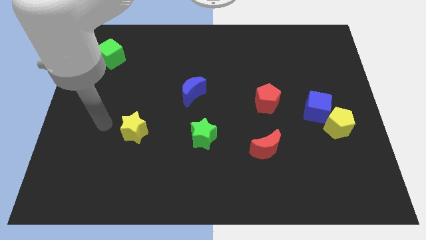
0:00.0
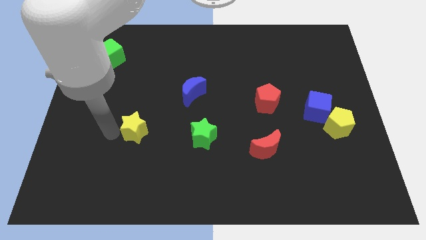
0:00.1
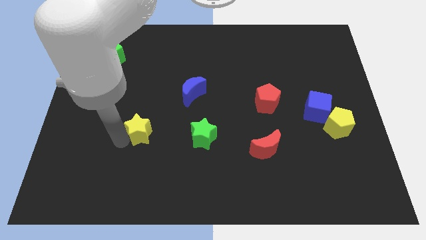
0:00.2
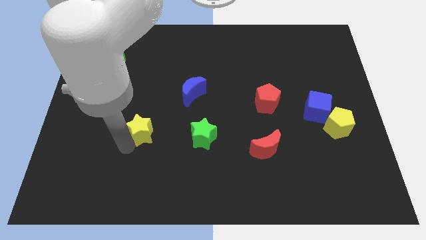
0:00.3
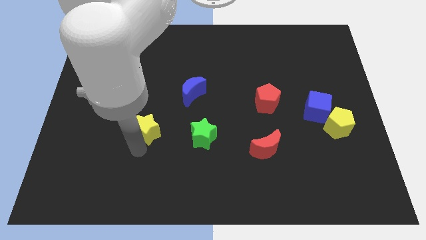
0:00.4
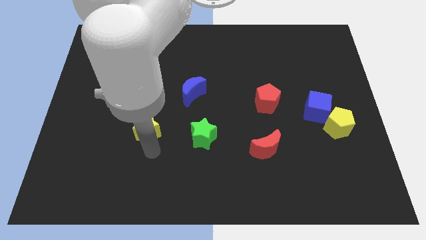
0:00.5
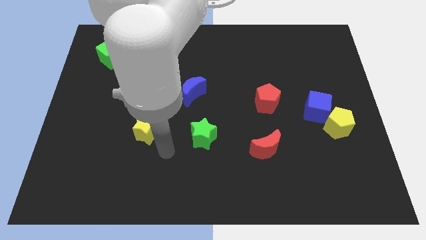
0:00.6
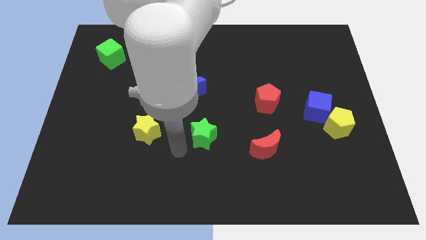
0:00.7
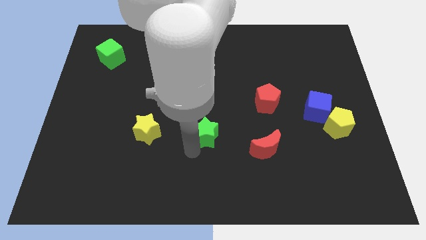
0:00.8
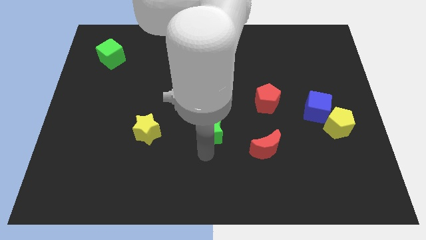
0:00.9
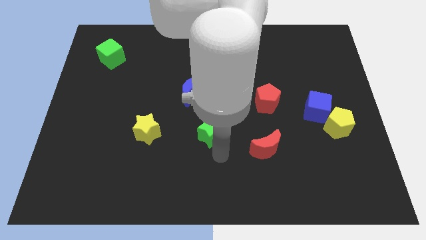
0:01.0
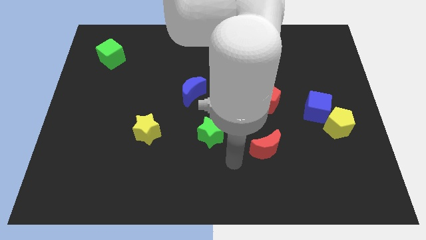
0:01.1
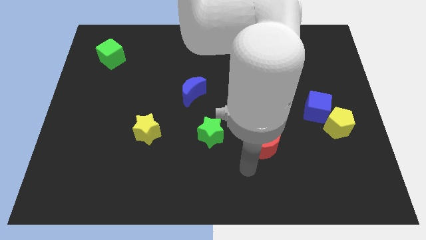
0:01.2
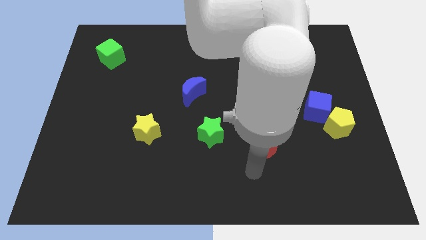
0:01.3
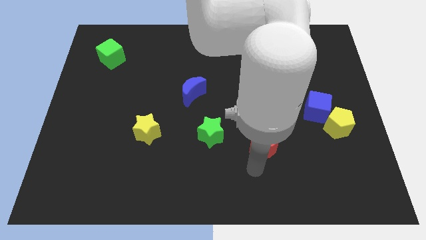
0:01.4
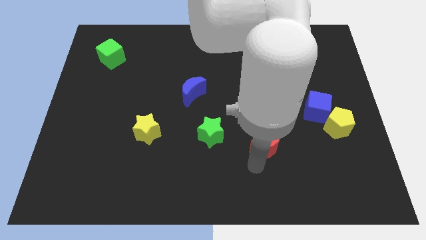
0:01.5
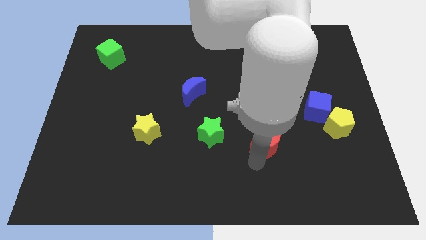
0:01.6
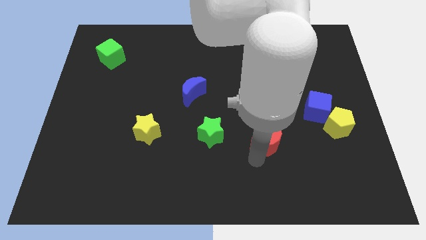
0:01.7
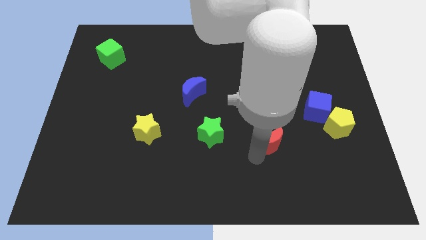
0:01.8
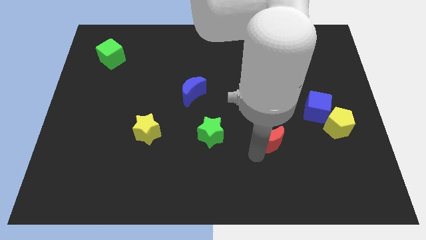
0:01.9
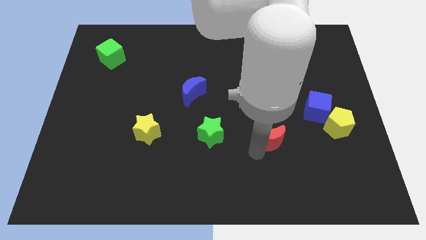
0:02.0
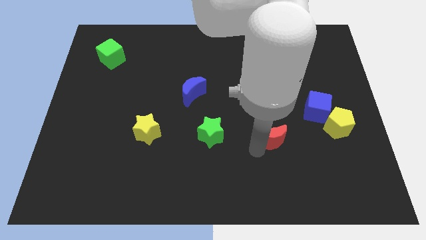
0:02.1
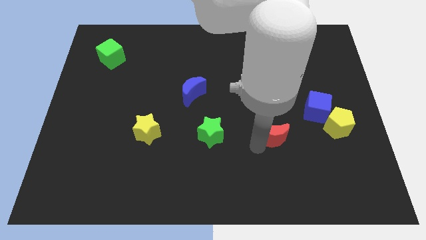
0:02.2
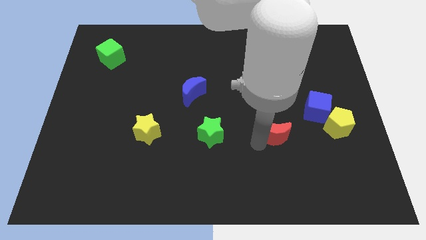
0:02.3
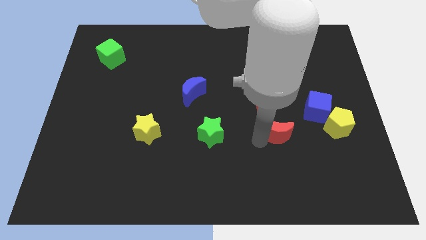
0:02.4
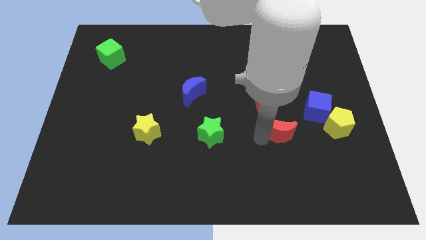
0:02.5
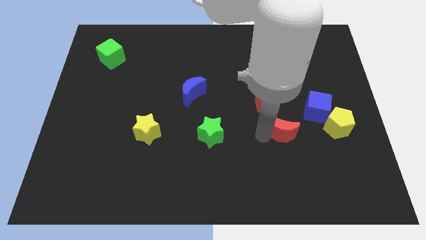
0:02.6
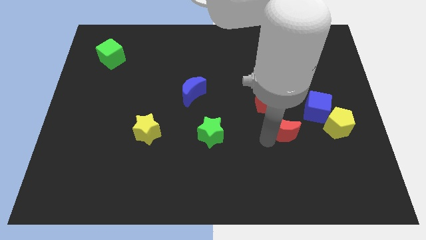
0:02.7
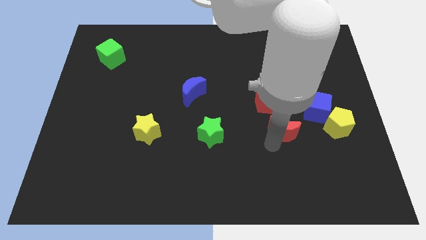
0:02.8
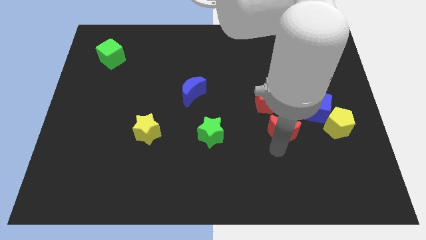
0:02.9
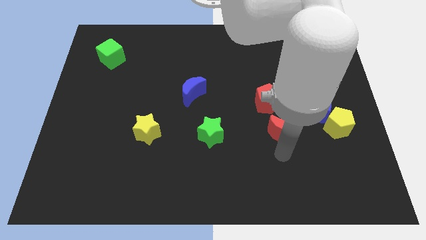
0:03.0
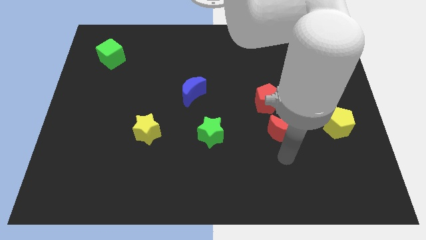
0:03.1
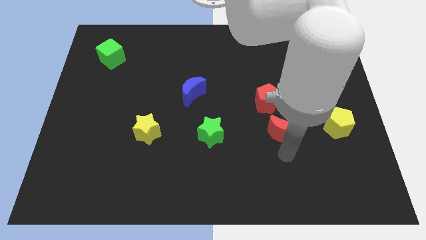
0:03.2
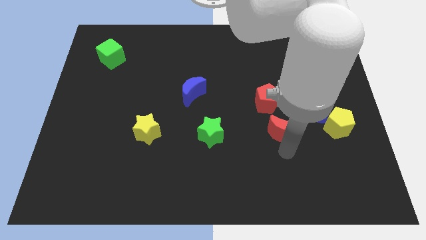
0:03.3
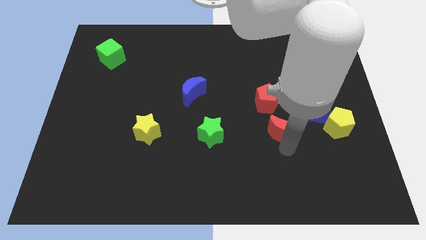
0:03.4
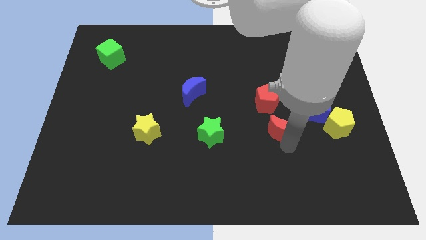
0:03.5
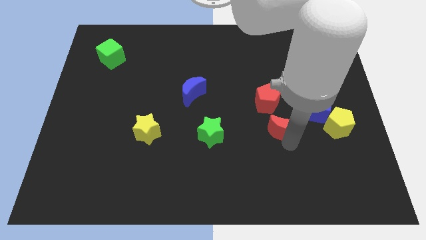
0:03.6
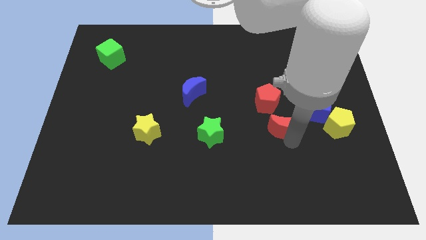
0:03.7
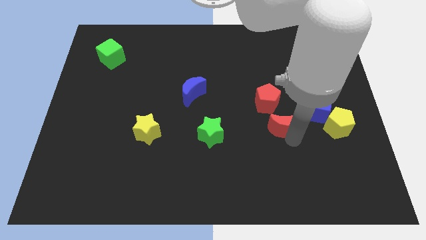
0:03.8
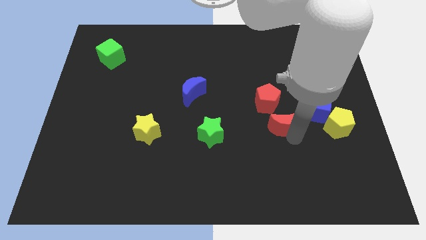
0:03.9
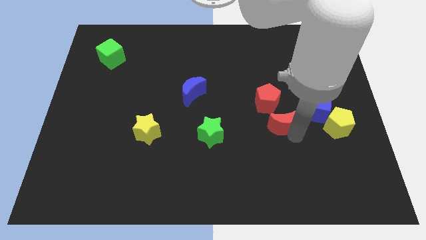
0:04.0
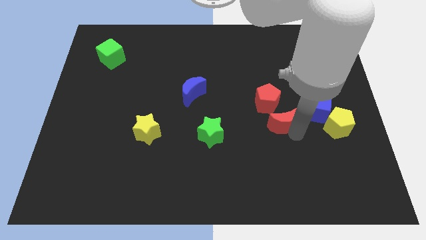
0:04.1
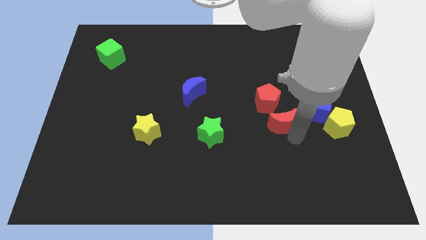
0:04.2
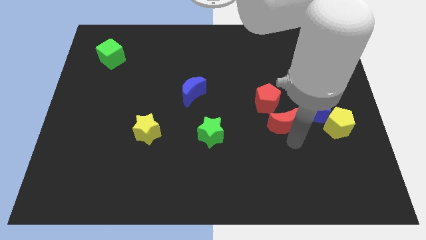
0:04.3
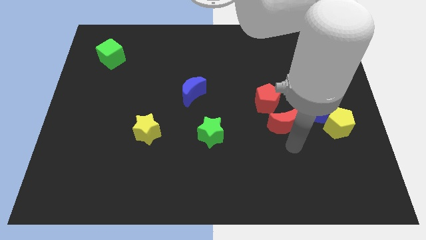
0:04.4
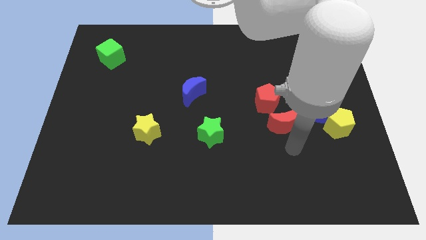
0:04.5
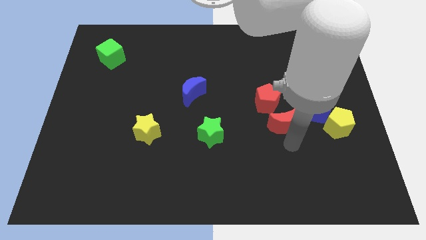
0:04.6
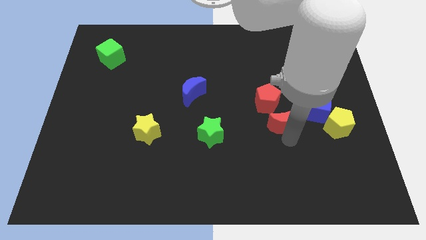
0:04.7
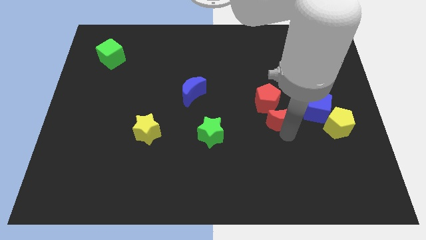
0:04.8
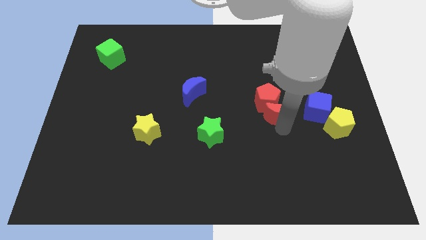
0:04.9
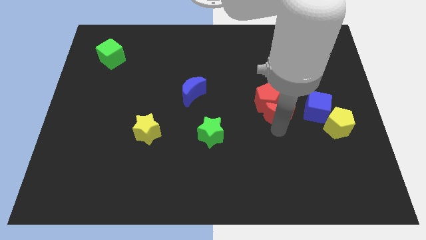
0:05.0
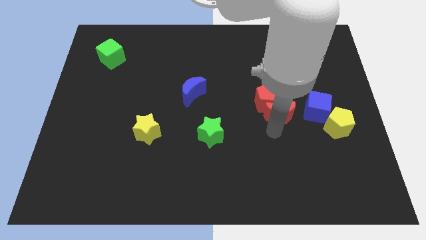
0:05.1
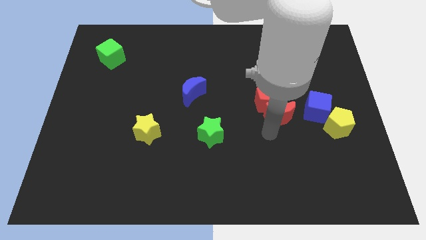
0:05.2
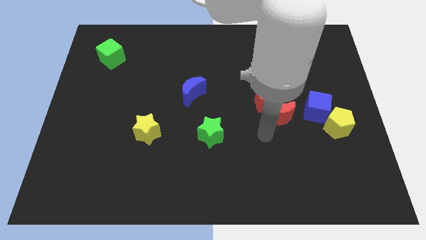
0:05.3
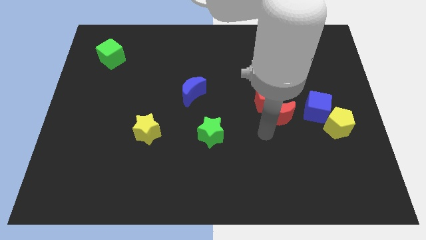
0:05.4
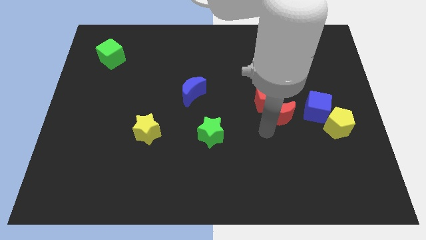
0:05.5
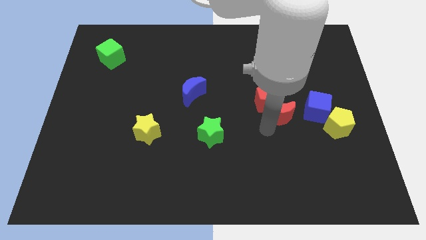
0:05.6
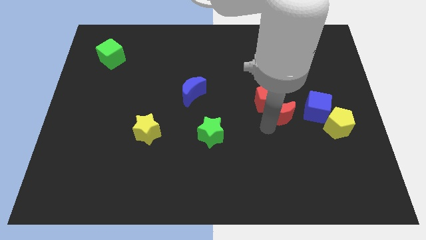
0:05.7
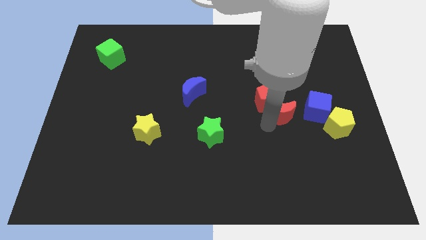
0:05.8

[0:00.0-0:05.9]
slide the red moon to the right side of the red pentagon

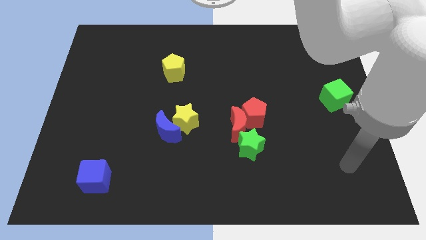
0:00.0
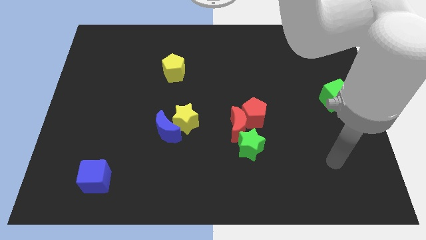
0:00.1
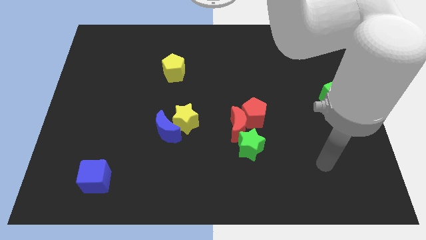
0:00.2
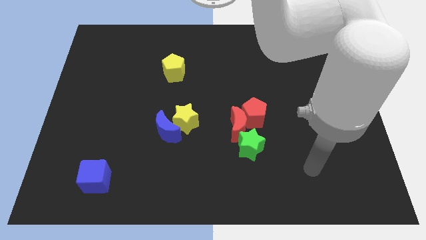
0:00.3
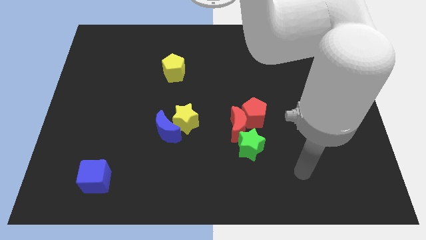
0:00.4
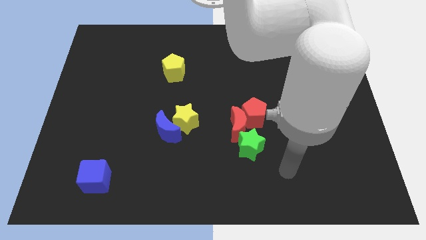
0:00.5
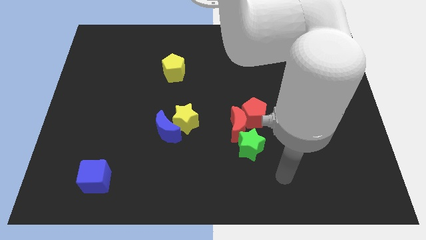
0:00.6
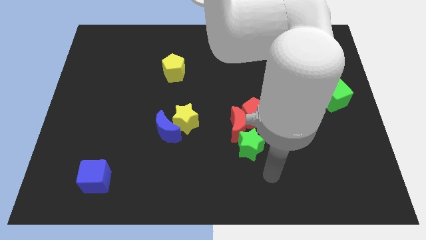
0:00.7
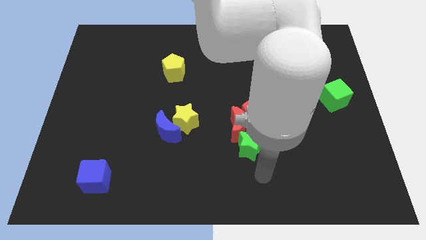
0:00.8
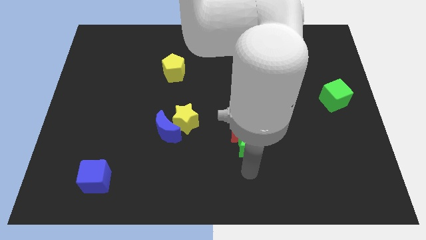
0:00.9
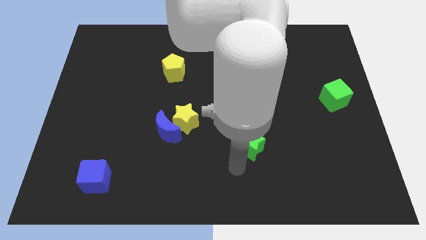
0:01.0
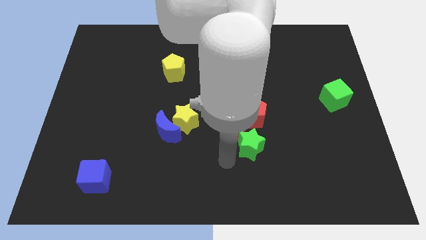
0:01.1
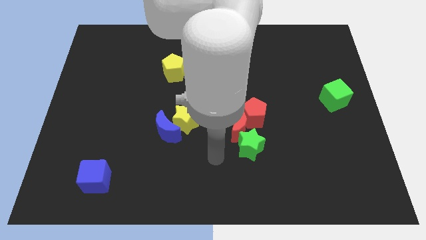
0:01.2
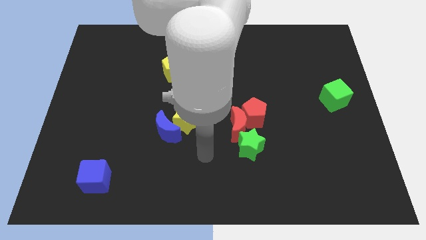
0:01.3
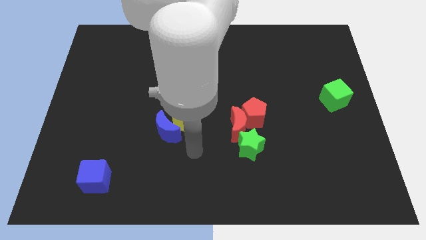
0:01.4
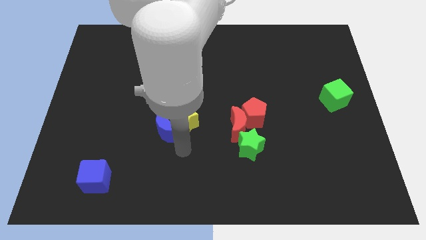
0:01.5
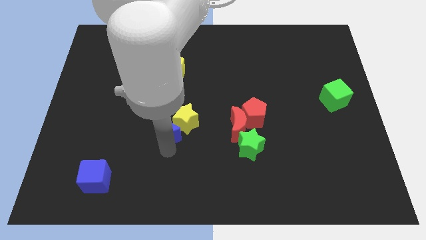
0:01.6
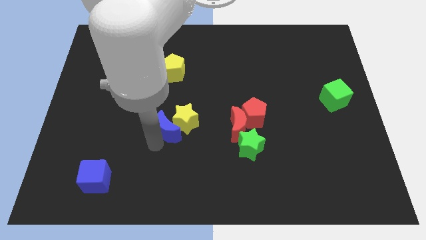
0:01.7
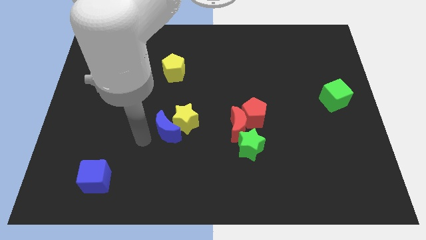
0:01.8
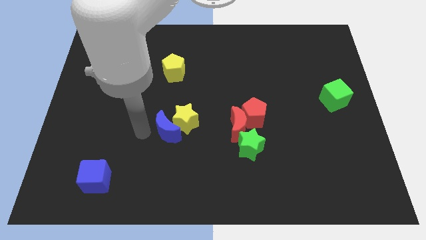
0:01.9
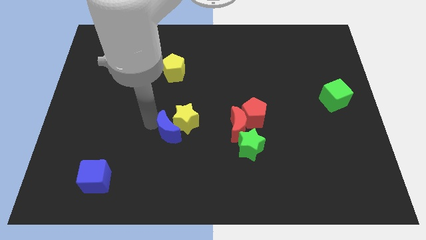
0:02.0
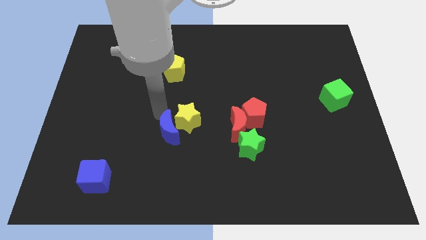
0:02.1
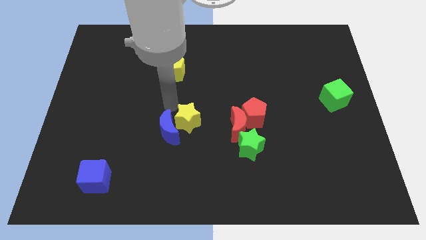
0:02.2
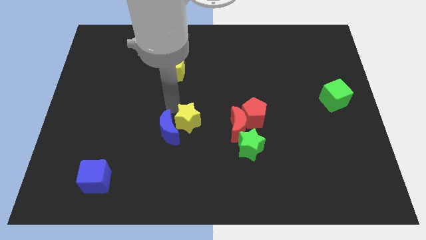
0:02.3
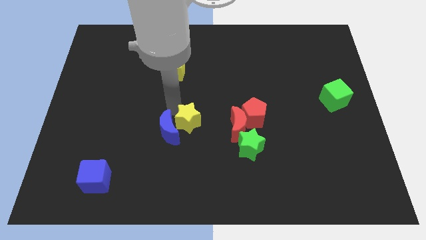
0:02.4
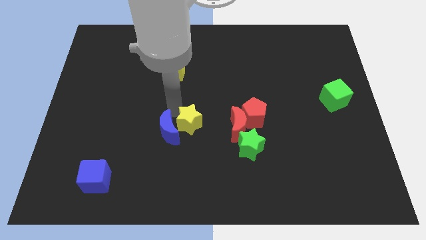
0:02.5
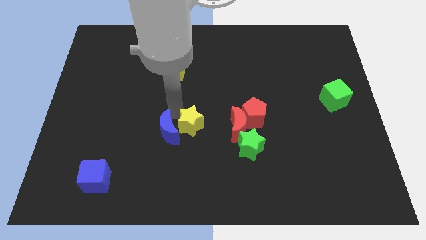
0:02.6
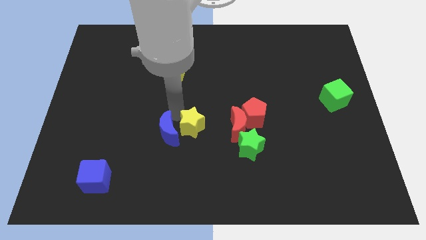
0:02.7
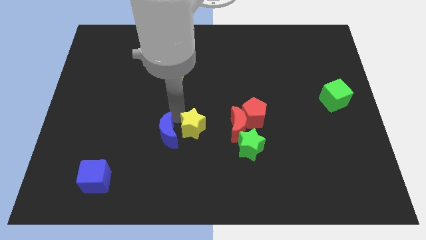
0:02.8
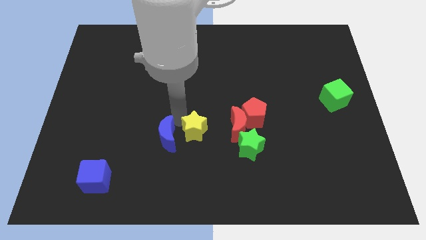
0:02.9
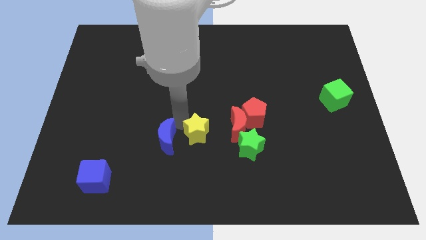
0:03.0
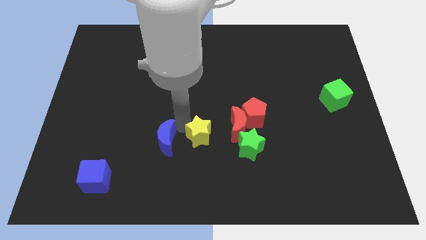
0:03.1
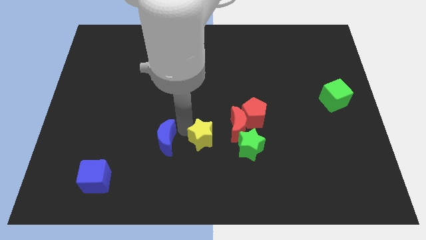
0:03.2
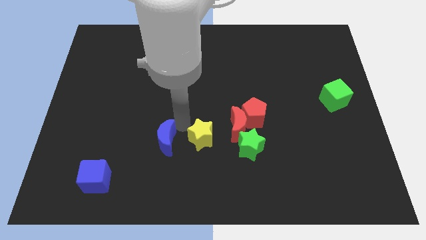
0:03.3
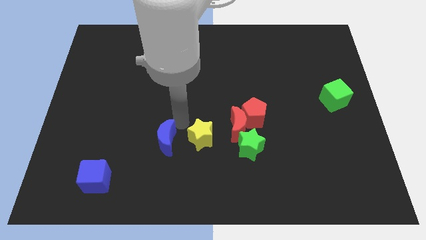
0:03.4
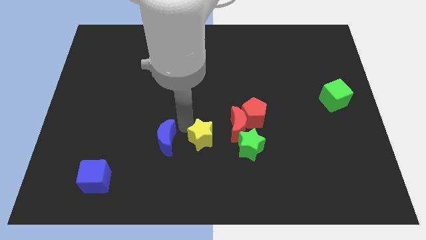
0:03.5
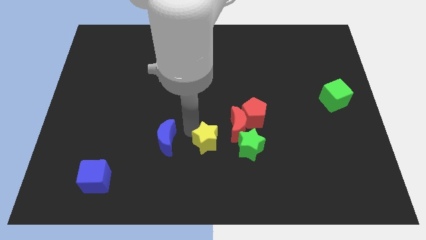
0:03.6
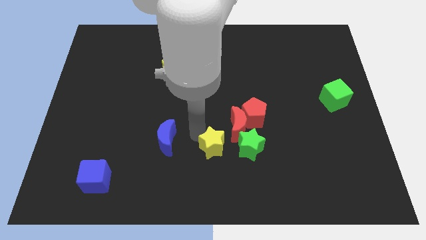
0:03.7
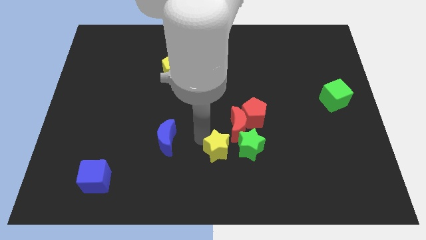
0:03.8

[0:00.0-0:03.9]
push the yellow star to the bottom of the red moon
